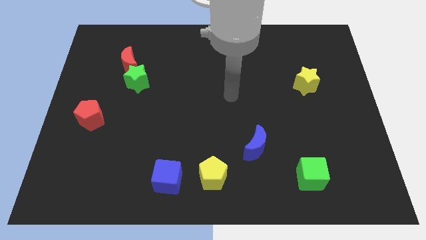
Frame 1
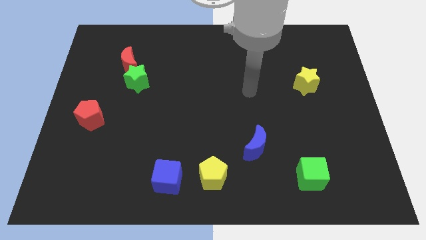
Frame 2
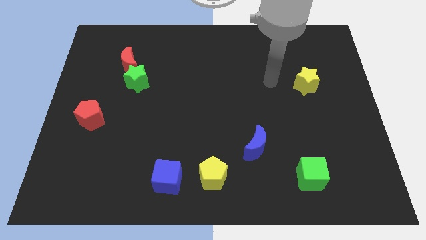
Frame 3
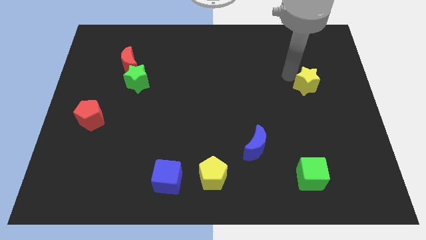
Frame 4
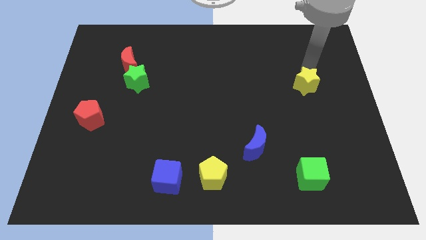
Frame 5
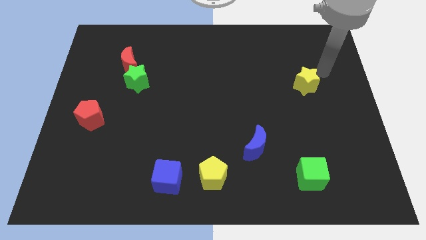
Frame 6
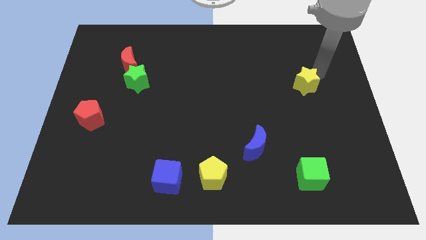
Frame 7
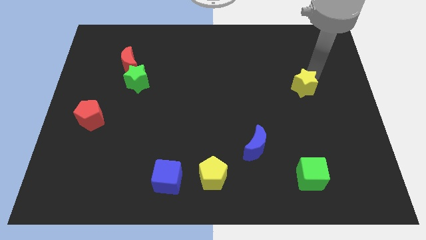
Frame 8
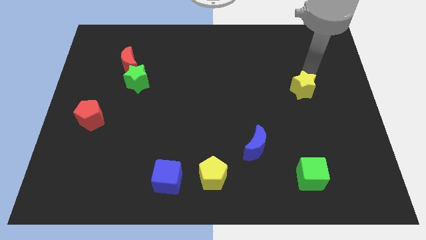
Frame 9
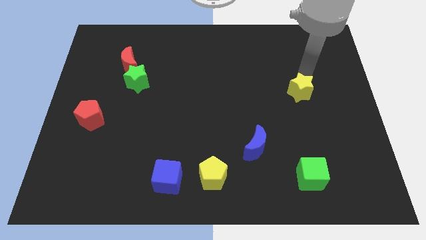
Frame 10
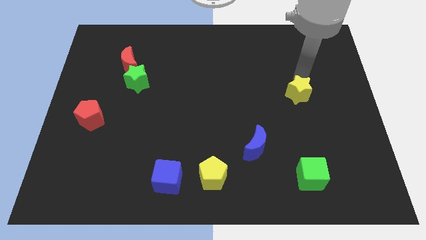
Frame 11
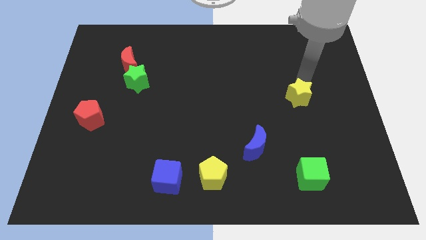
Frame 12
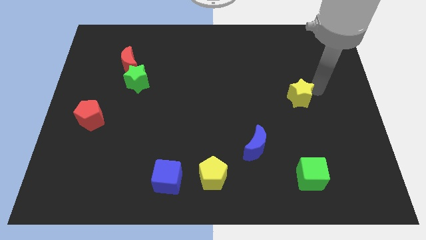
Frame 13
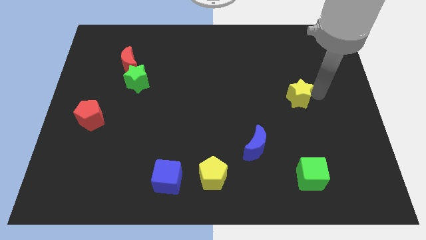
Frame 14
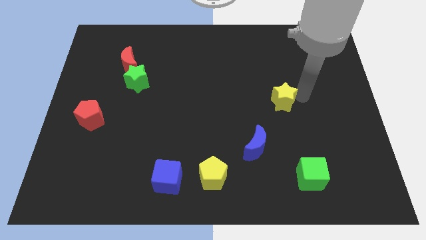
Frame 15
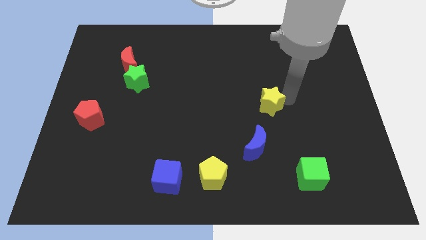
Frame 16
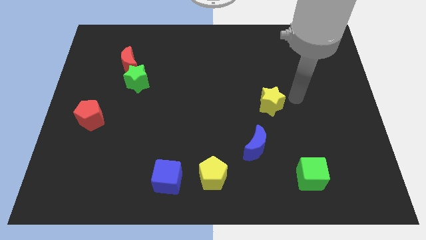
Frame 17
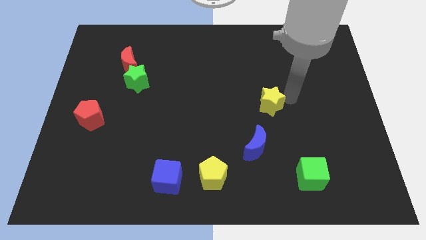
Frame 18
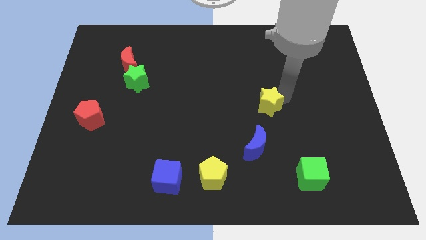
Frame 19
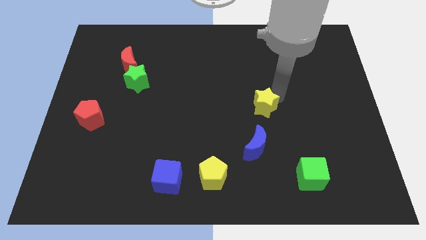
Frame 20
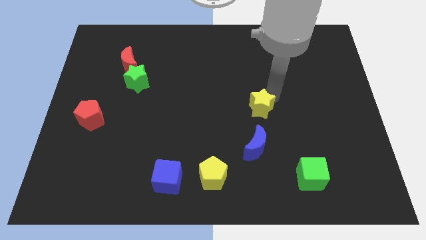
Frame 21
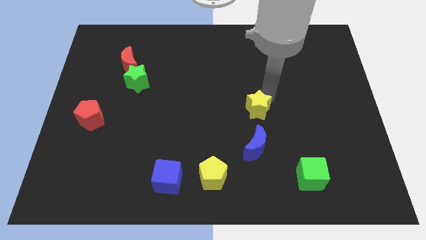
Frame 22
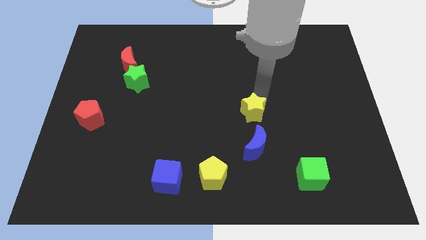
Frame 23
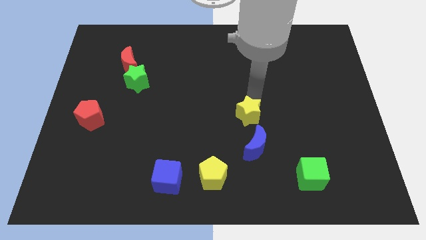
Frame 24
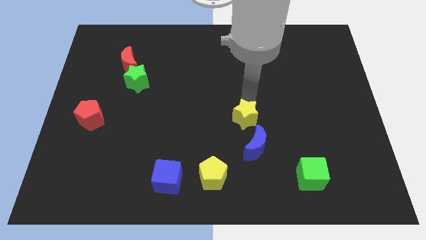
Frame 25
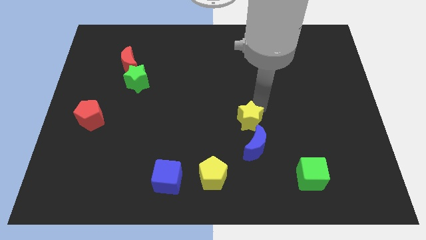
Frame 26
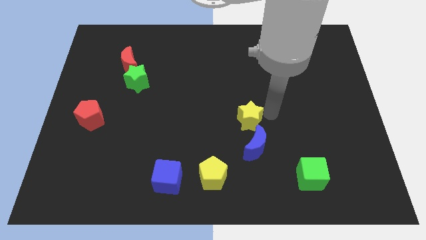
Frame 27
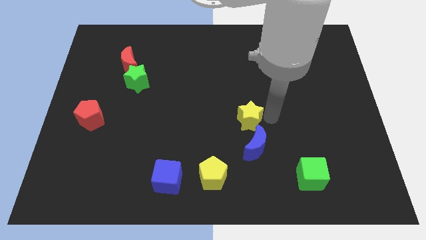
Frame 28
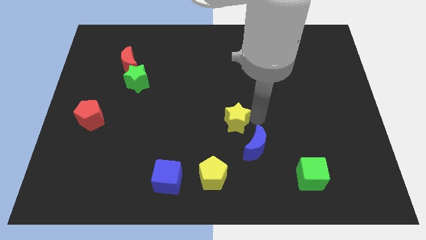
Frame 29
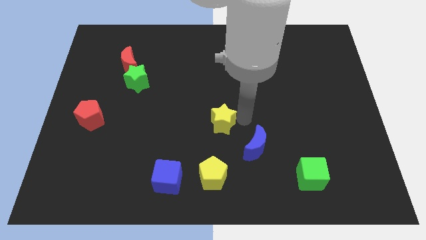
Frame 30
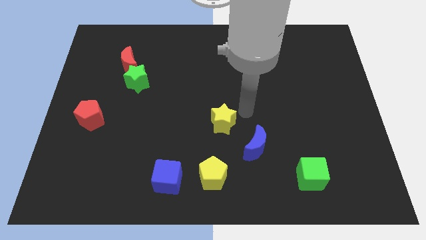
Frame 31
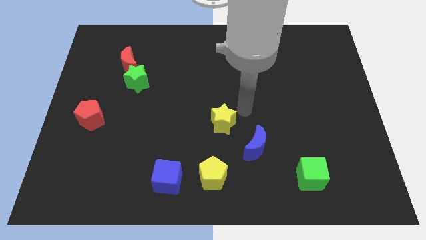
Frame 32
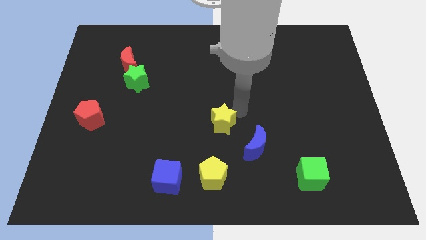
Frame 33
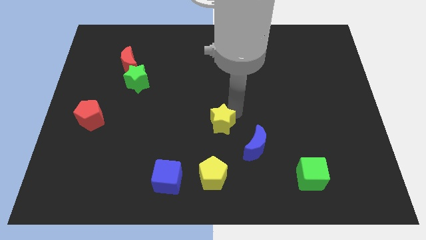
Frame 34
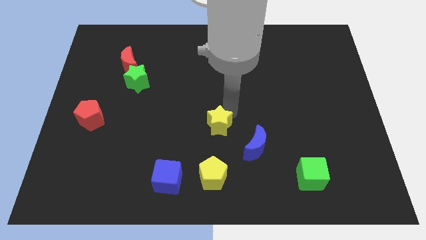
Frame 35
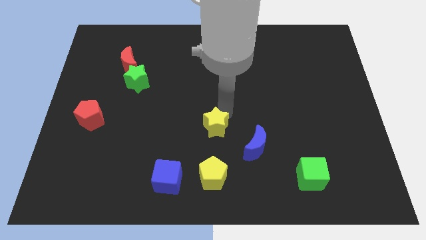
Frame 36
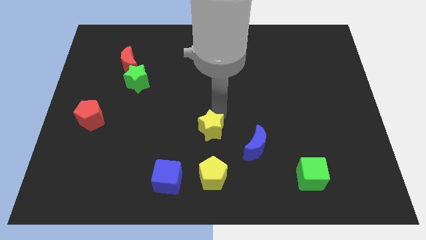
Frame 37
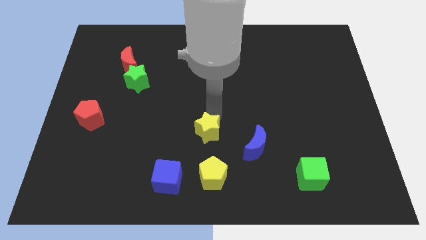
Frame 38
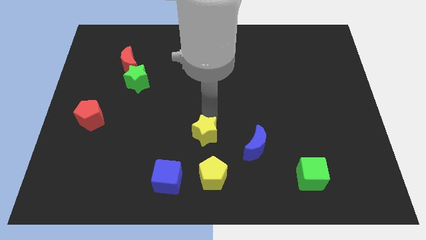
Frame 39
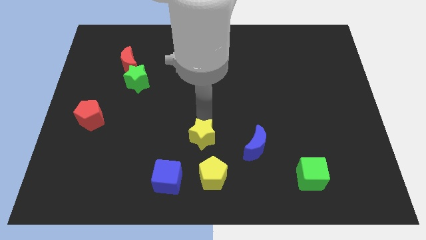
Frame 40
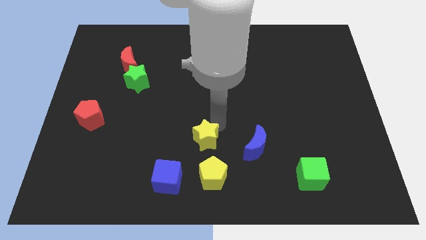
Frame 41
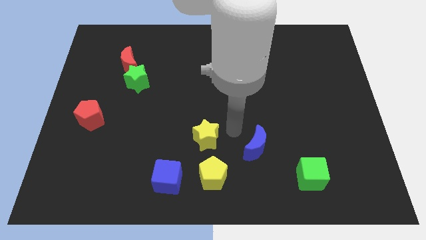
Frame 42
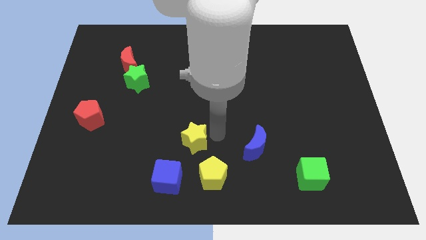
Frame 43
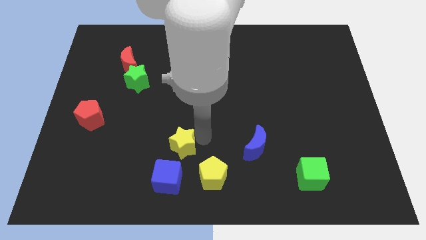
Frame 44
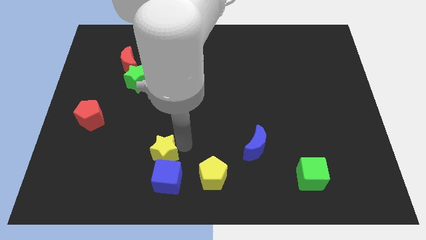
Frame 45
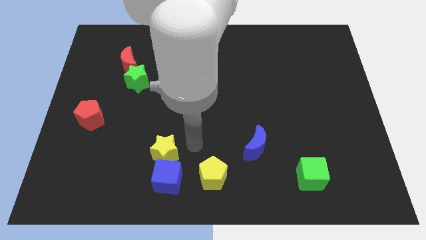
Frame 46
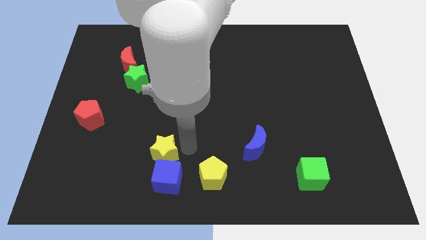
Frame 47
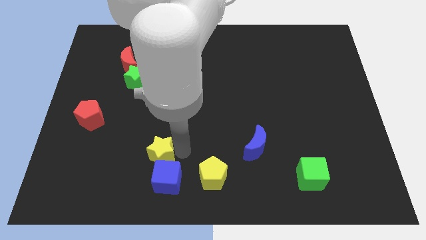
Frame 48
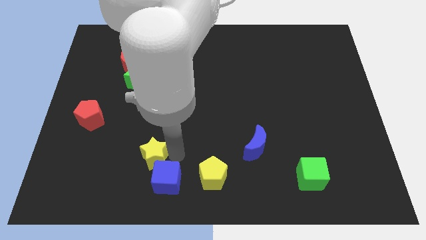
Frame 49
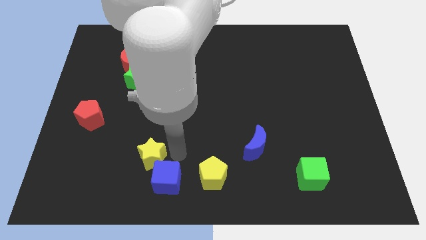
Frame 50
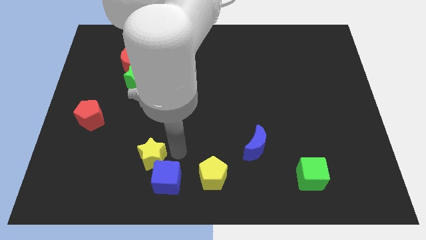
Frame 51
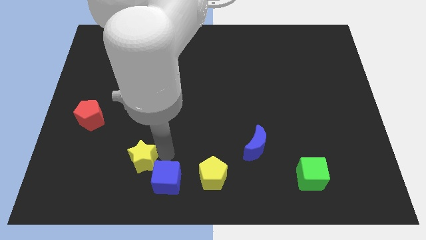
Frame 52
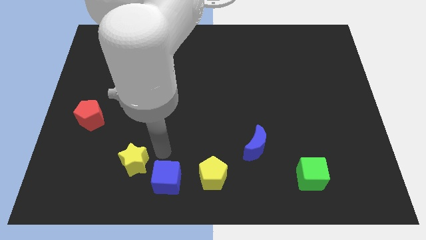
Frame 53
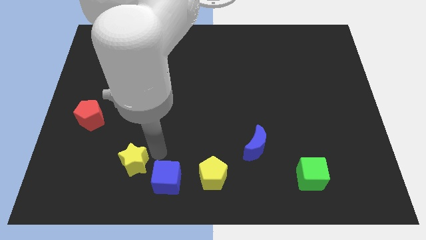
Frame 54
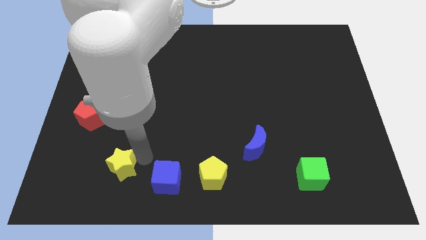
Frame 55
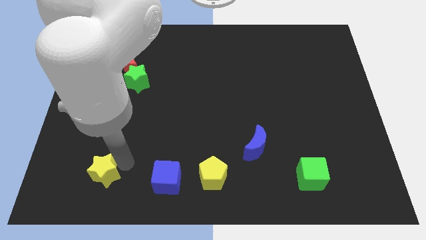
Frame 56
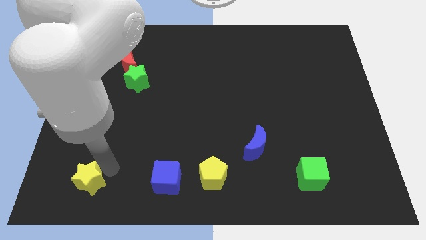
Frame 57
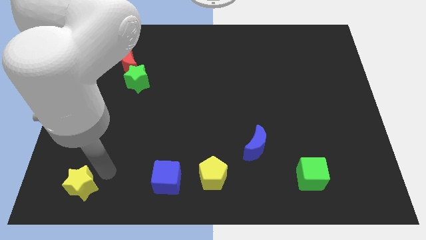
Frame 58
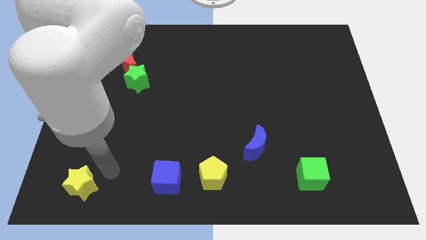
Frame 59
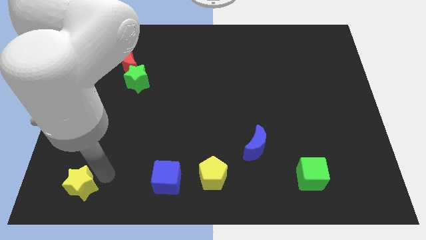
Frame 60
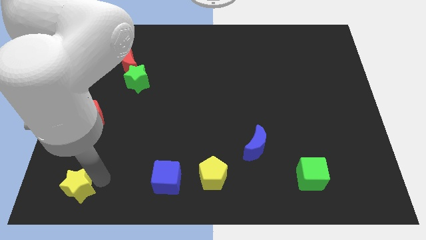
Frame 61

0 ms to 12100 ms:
push the yellow star to the bottom left

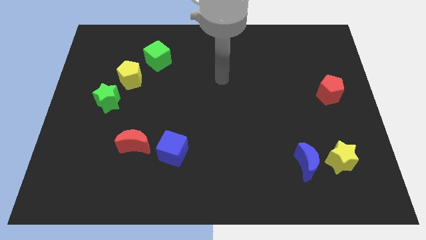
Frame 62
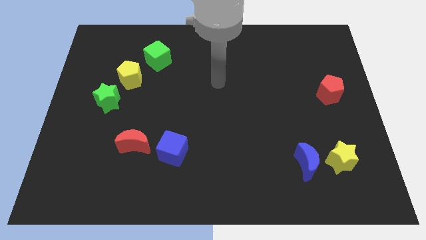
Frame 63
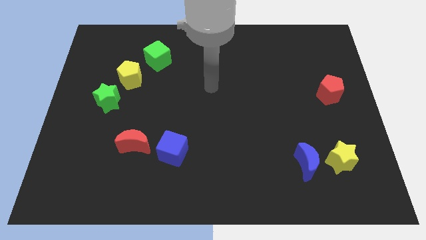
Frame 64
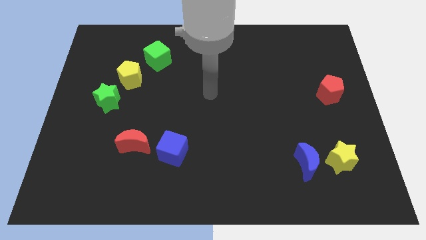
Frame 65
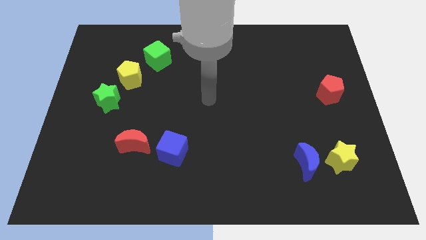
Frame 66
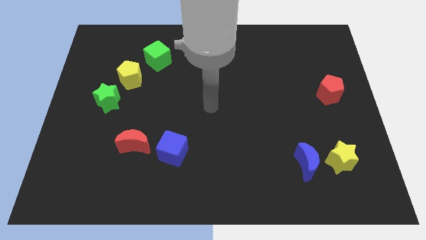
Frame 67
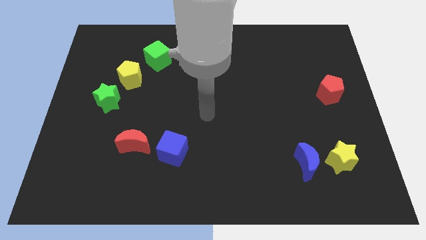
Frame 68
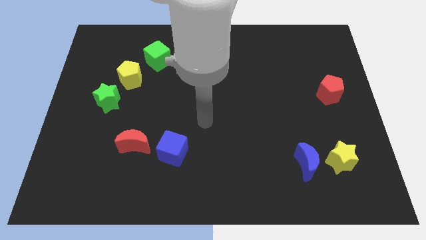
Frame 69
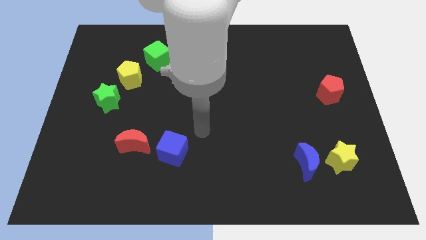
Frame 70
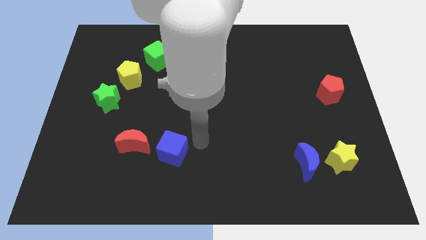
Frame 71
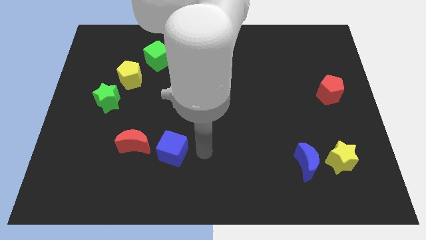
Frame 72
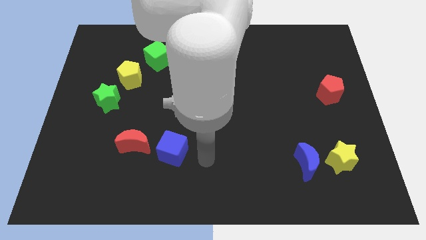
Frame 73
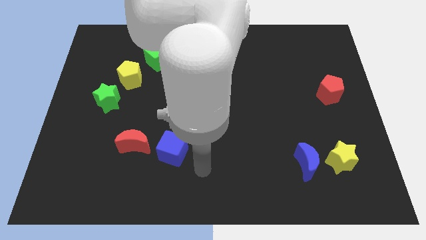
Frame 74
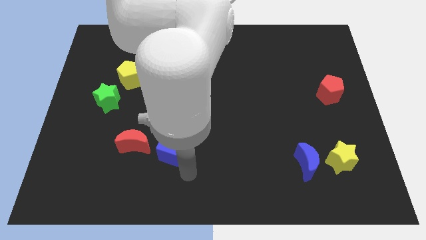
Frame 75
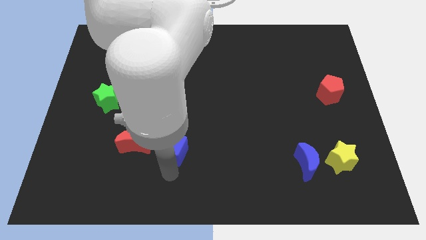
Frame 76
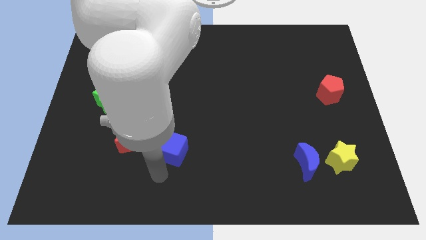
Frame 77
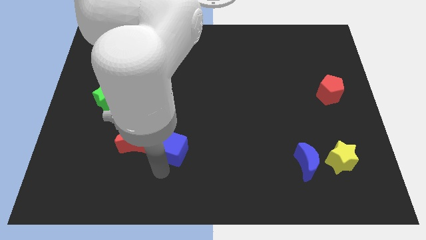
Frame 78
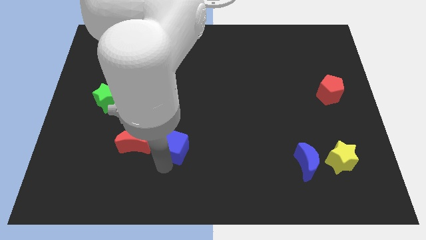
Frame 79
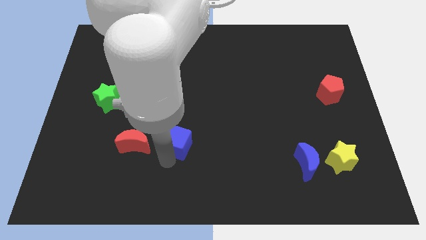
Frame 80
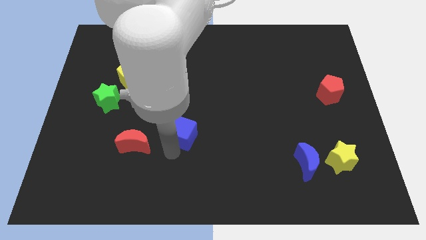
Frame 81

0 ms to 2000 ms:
put the blue cube to the middle of the board
